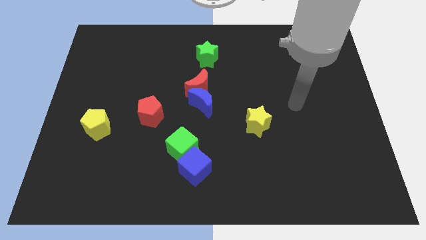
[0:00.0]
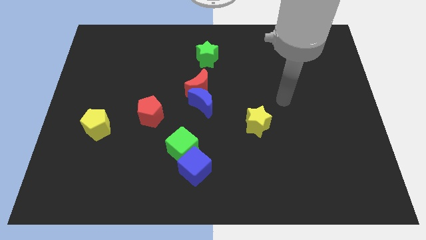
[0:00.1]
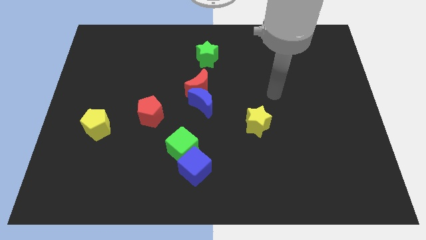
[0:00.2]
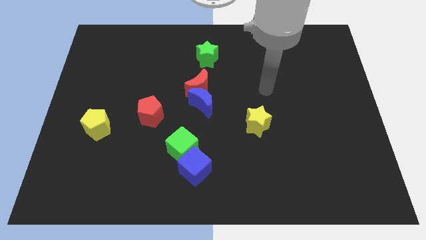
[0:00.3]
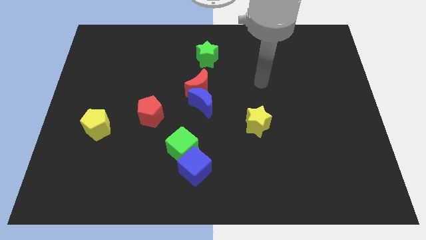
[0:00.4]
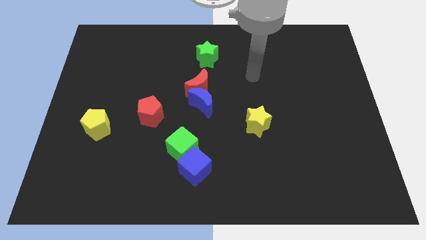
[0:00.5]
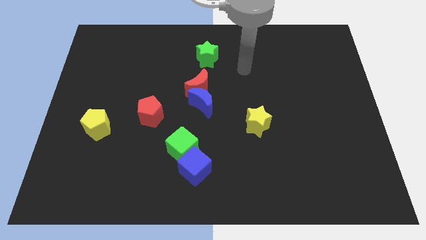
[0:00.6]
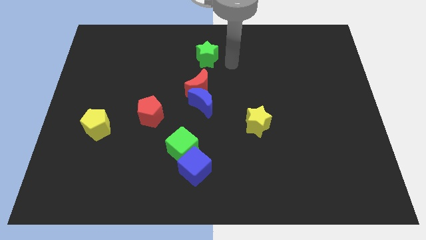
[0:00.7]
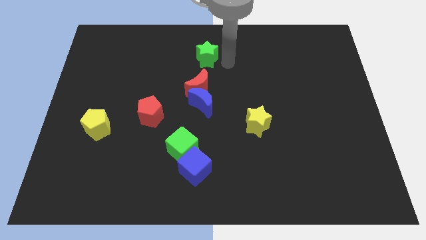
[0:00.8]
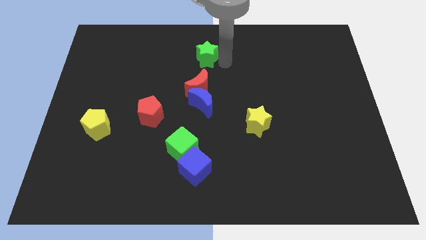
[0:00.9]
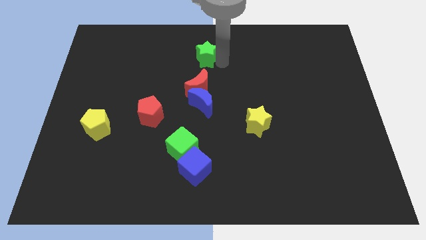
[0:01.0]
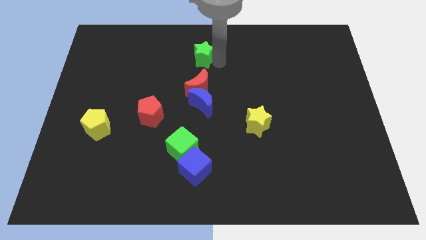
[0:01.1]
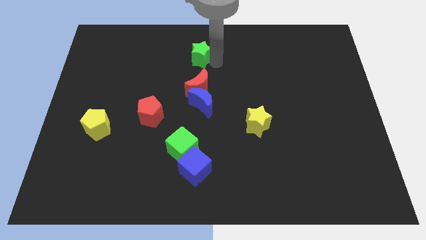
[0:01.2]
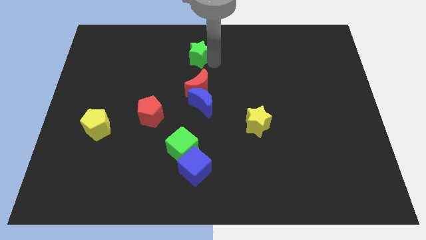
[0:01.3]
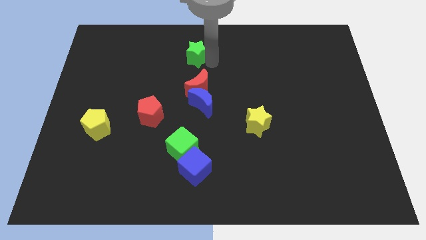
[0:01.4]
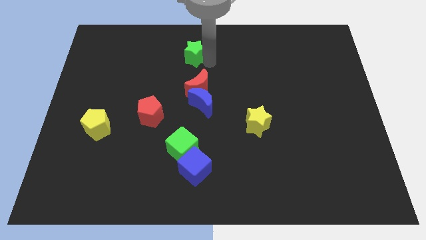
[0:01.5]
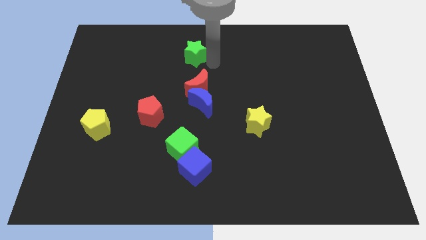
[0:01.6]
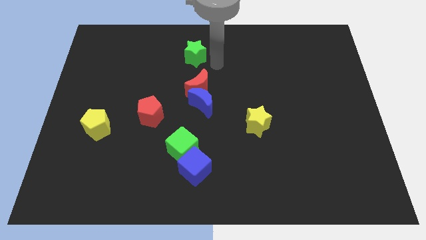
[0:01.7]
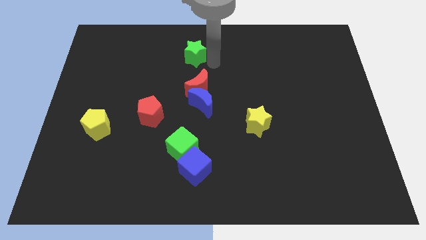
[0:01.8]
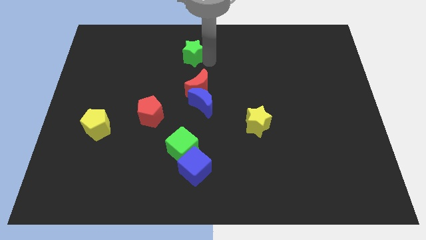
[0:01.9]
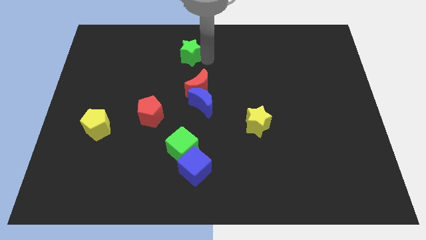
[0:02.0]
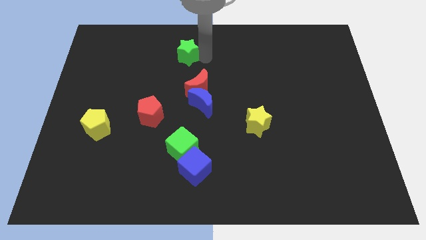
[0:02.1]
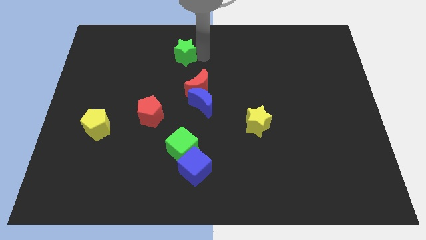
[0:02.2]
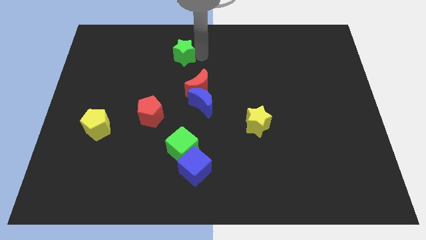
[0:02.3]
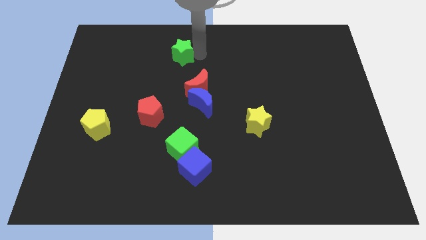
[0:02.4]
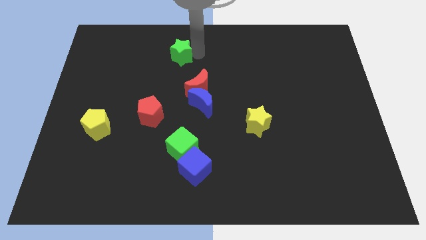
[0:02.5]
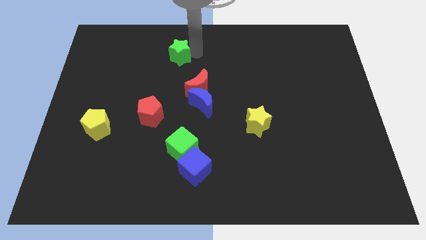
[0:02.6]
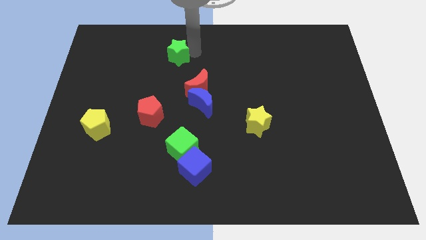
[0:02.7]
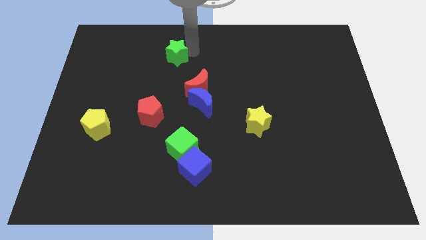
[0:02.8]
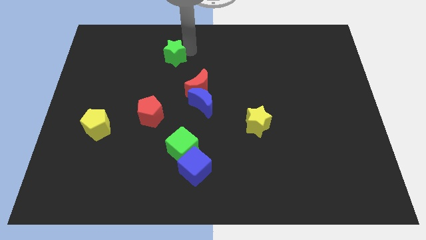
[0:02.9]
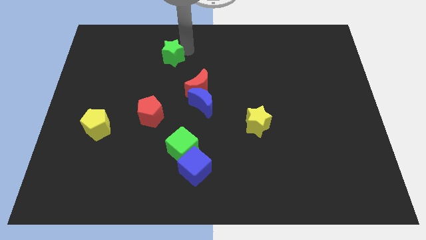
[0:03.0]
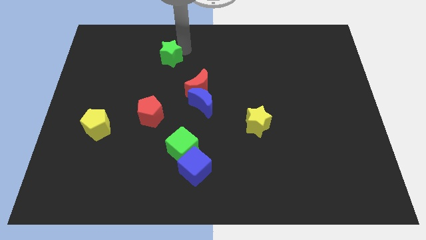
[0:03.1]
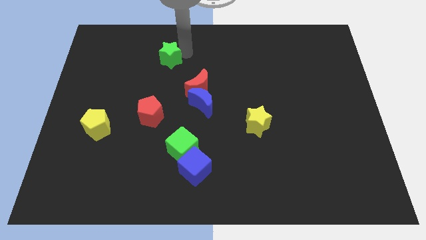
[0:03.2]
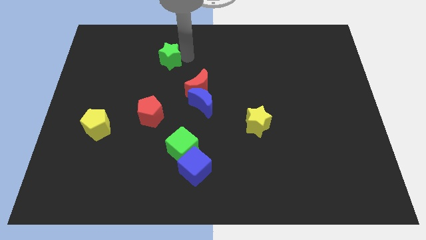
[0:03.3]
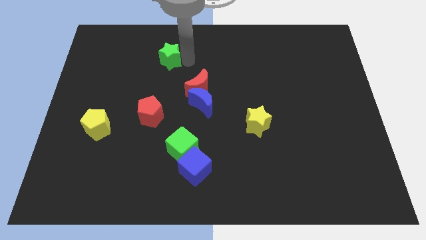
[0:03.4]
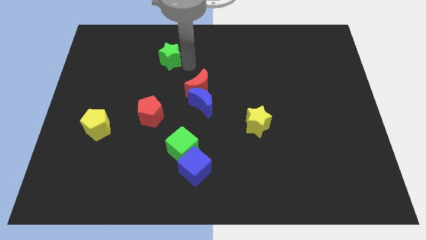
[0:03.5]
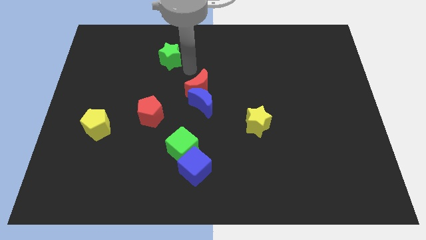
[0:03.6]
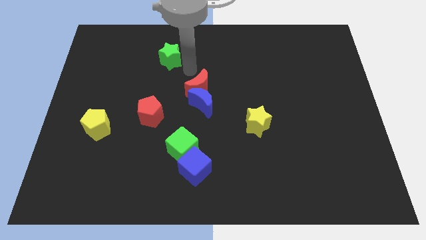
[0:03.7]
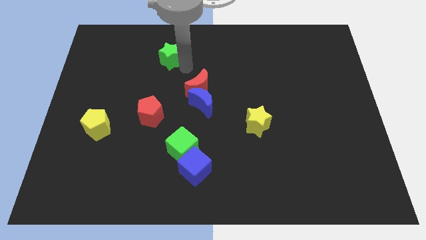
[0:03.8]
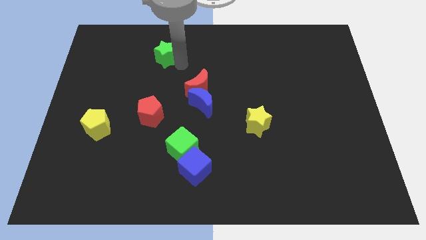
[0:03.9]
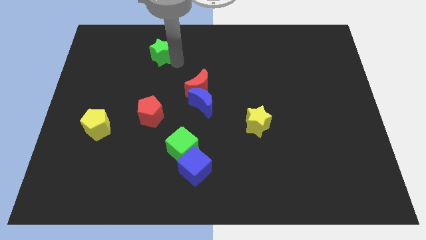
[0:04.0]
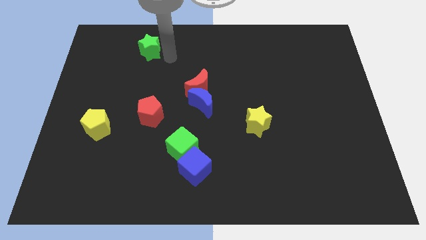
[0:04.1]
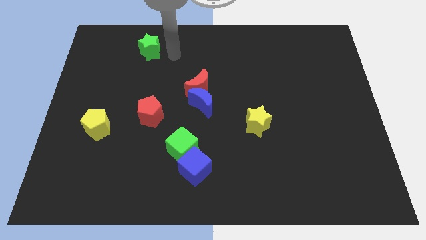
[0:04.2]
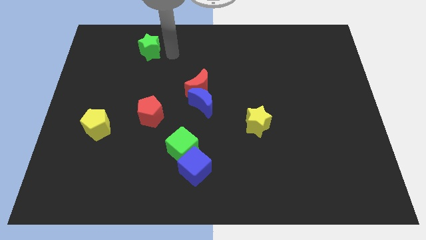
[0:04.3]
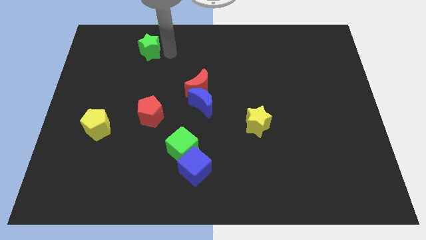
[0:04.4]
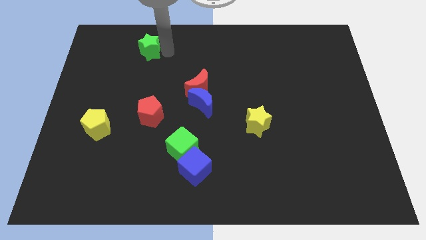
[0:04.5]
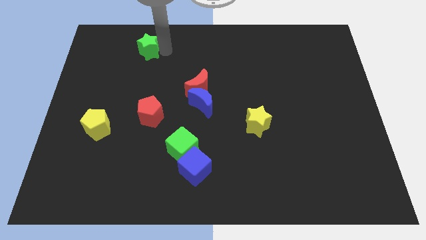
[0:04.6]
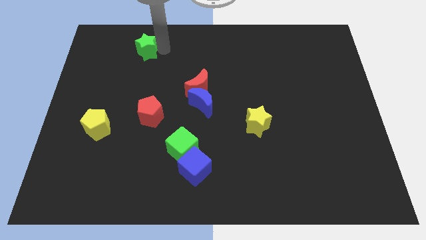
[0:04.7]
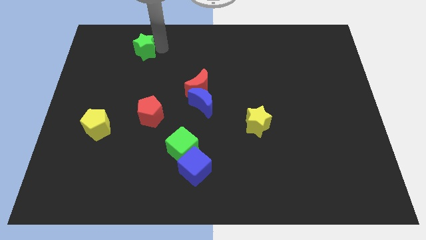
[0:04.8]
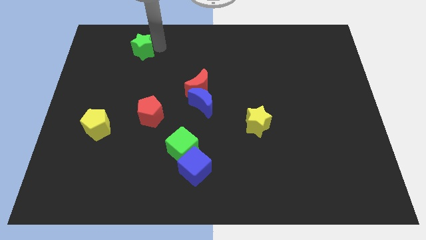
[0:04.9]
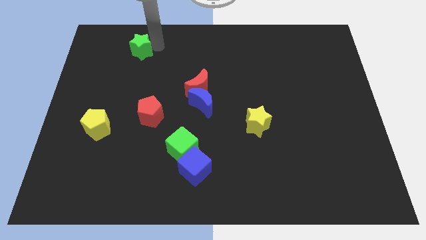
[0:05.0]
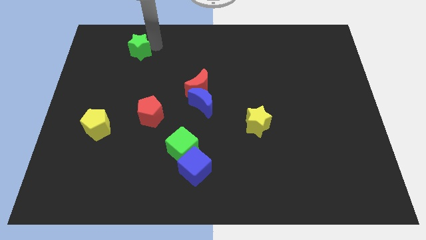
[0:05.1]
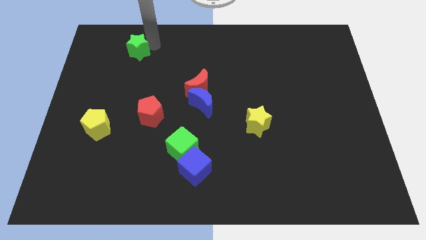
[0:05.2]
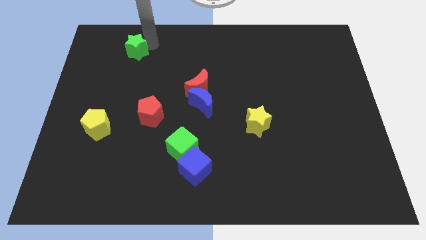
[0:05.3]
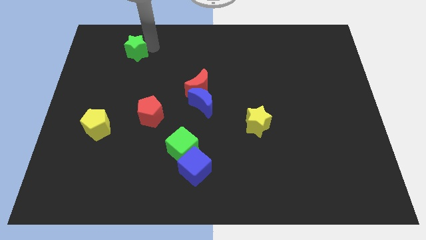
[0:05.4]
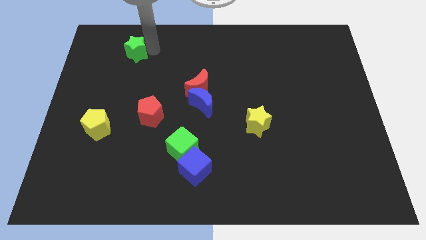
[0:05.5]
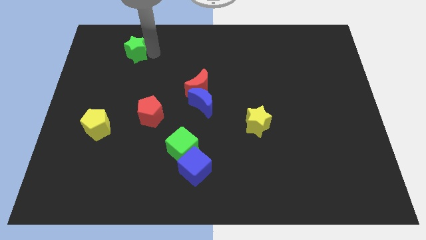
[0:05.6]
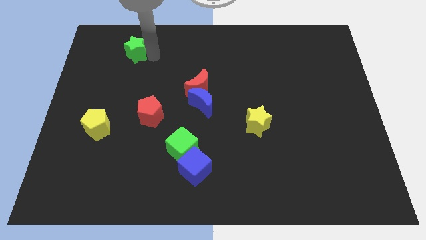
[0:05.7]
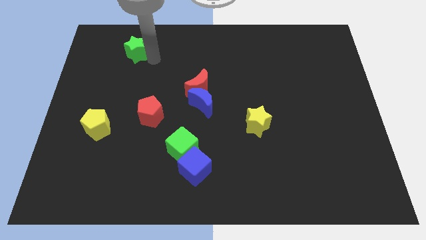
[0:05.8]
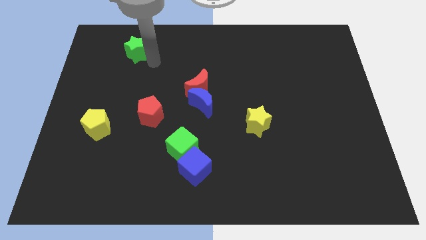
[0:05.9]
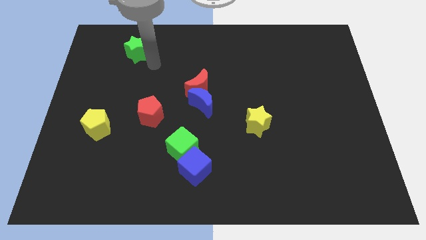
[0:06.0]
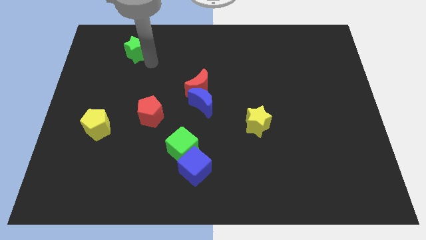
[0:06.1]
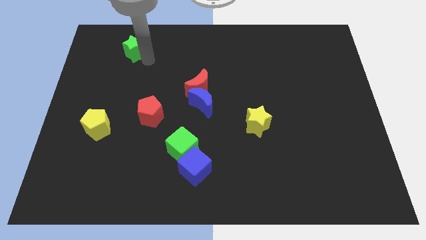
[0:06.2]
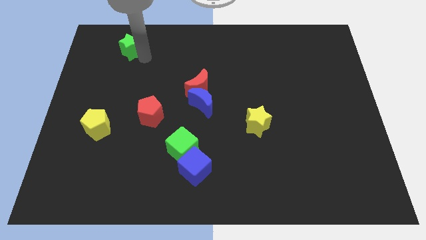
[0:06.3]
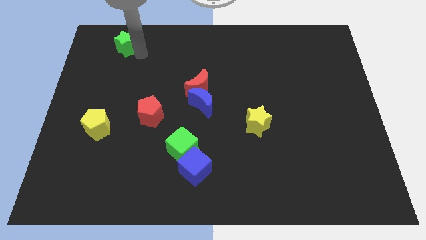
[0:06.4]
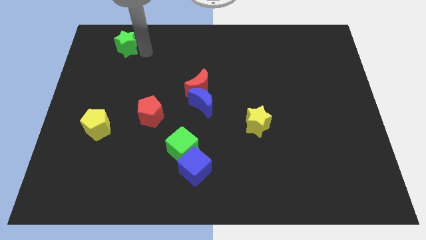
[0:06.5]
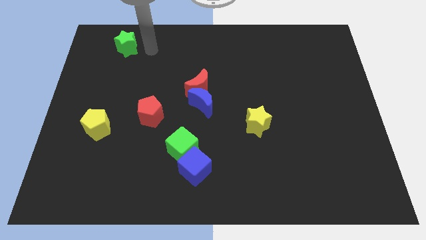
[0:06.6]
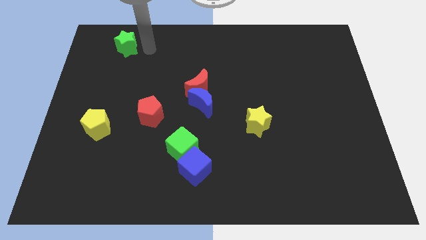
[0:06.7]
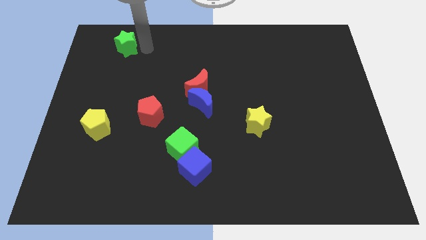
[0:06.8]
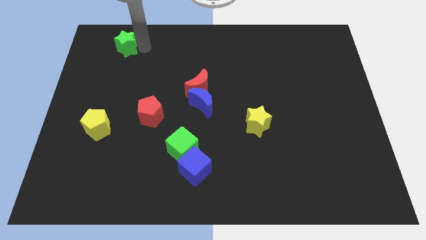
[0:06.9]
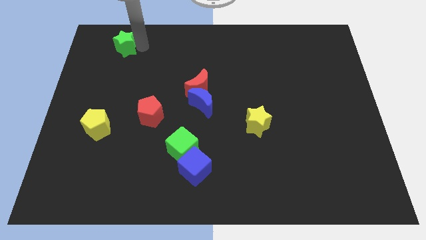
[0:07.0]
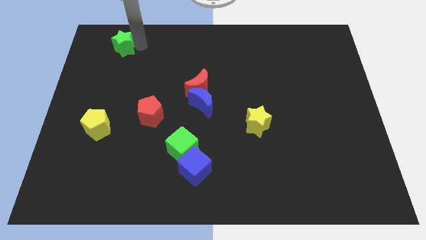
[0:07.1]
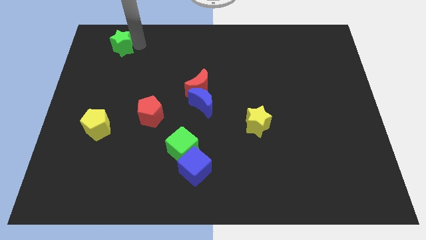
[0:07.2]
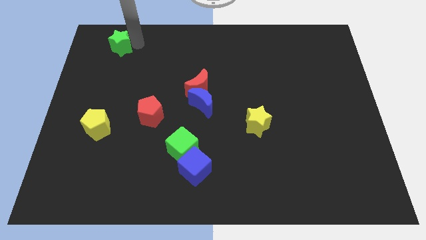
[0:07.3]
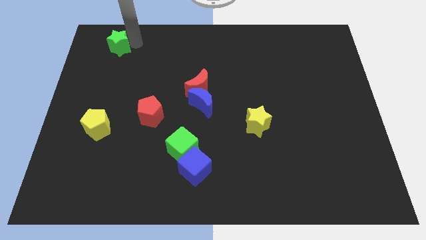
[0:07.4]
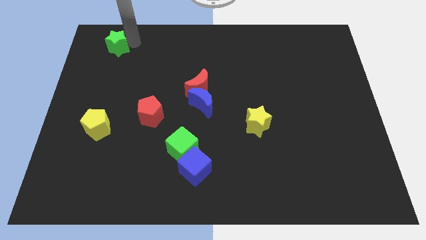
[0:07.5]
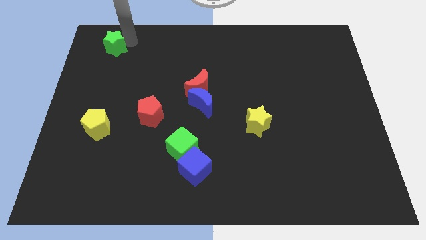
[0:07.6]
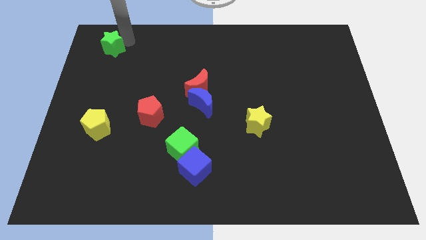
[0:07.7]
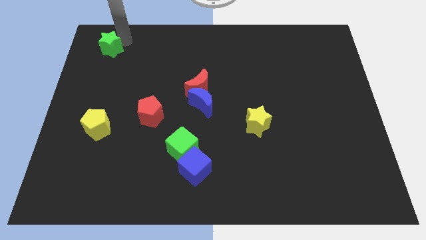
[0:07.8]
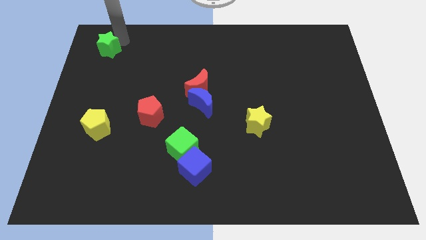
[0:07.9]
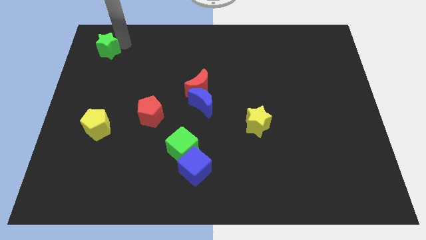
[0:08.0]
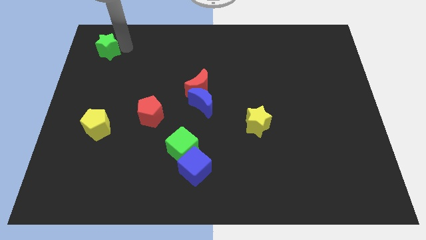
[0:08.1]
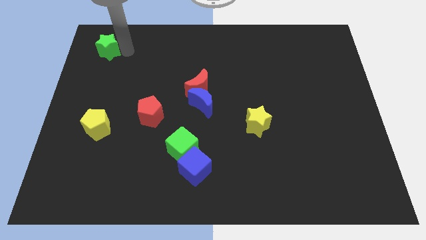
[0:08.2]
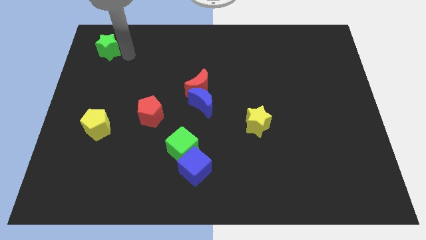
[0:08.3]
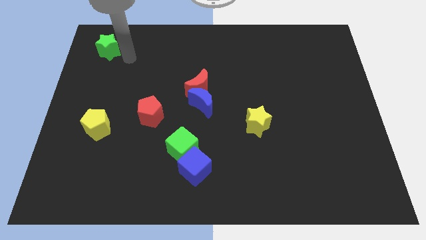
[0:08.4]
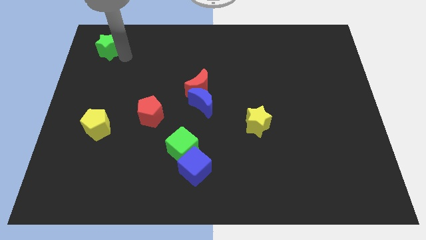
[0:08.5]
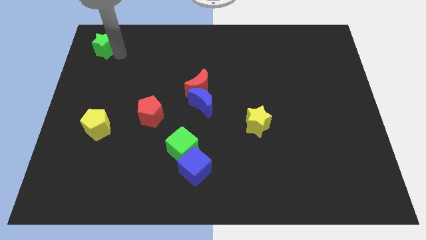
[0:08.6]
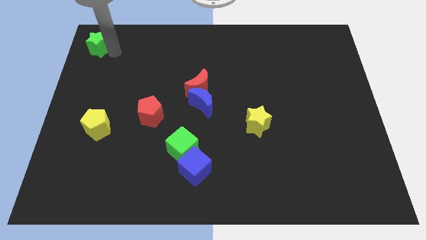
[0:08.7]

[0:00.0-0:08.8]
slide the green star to the top left corner
